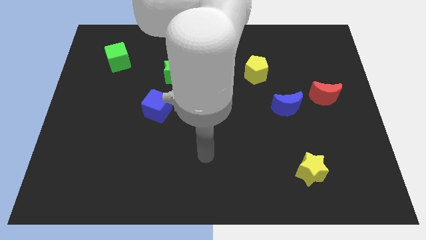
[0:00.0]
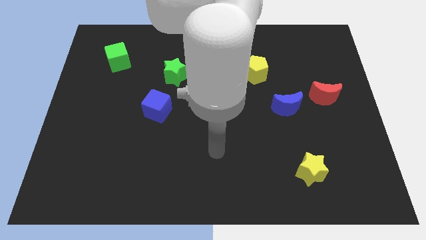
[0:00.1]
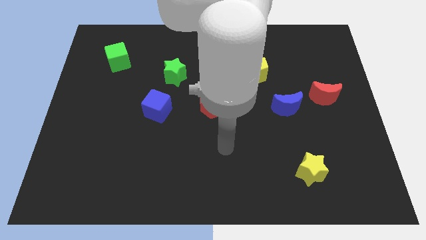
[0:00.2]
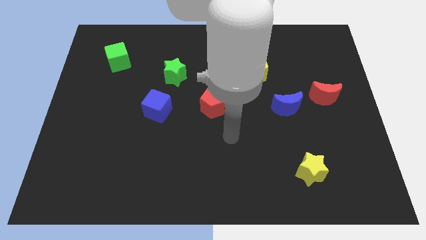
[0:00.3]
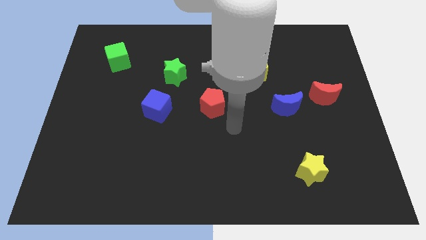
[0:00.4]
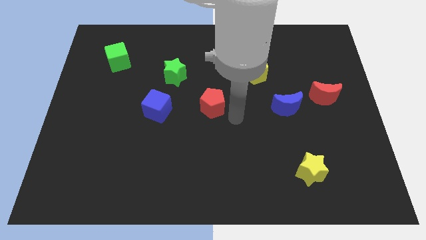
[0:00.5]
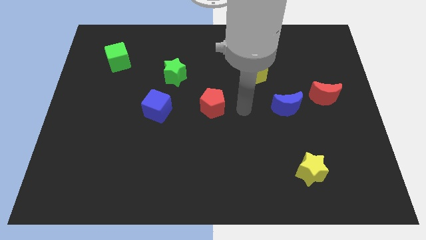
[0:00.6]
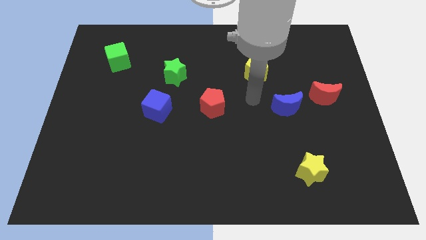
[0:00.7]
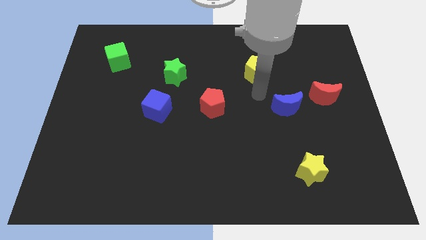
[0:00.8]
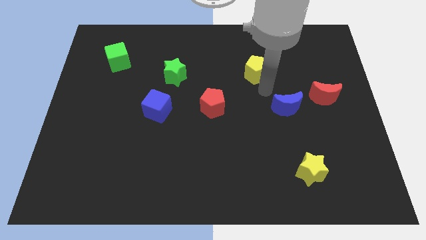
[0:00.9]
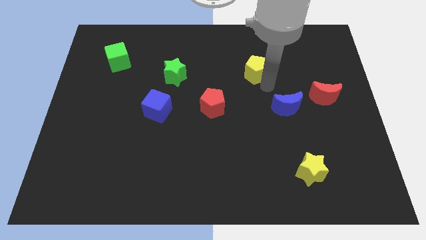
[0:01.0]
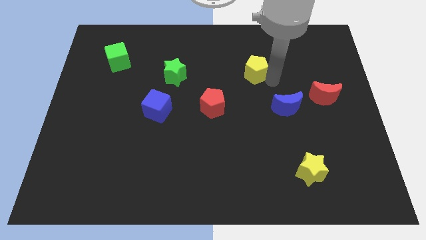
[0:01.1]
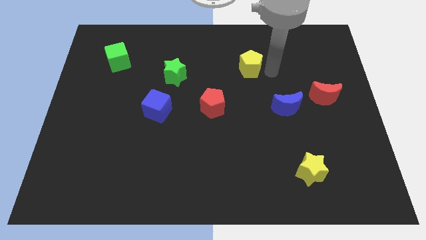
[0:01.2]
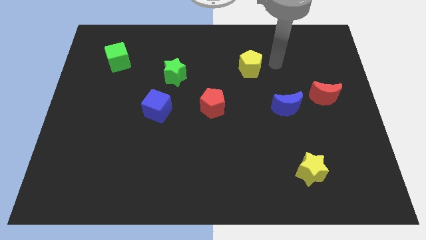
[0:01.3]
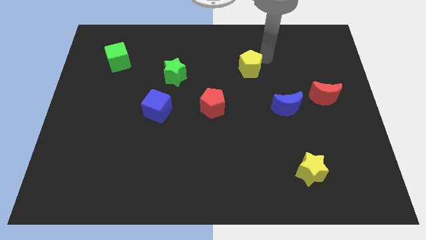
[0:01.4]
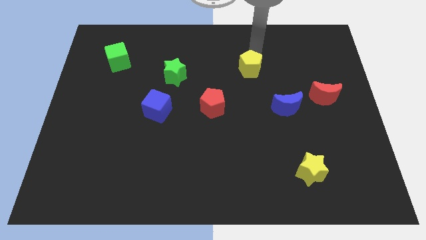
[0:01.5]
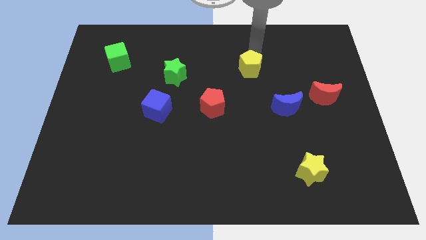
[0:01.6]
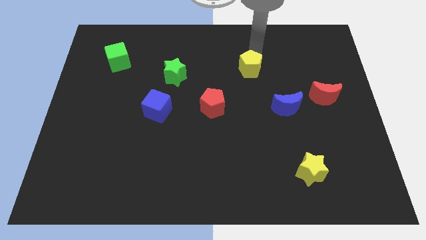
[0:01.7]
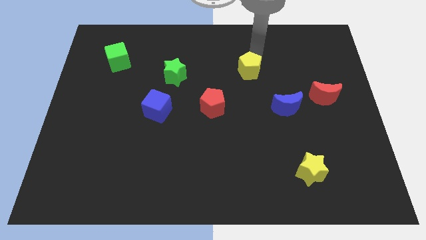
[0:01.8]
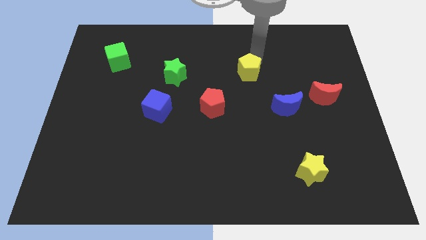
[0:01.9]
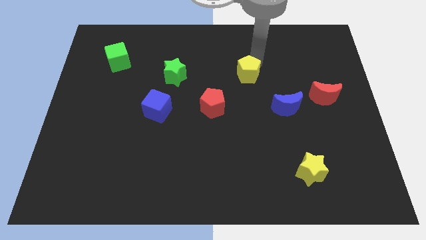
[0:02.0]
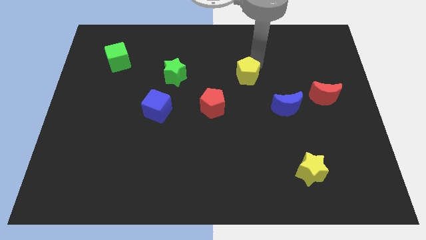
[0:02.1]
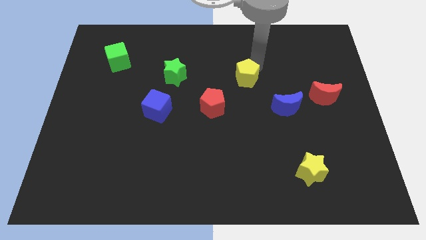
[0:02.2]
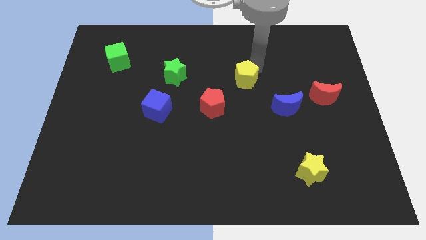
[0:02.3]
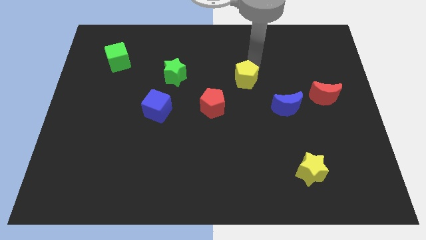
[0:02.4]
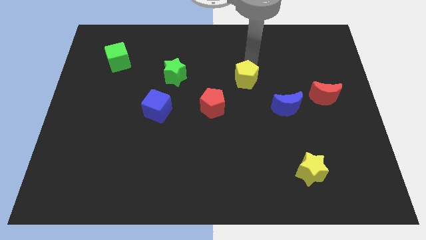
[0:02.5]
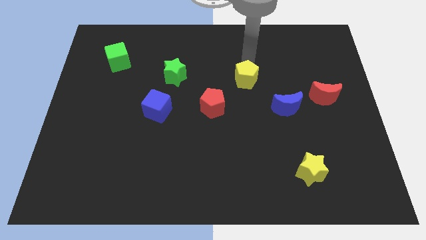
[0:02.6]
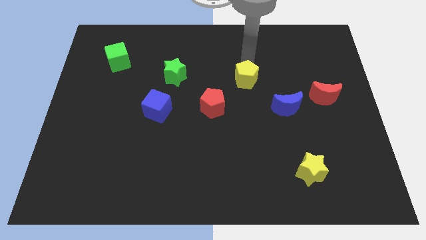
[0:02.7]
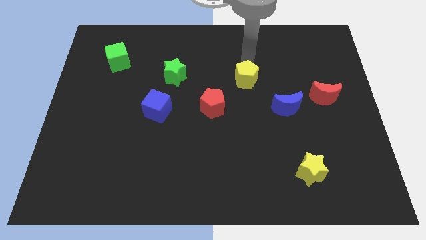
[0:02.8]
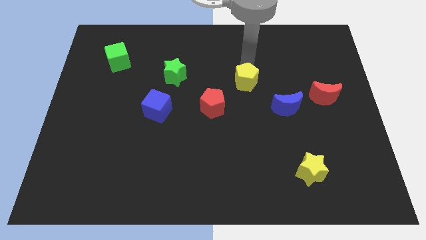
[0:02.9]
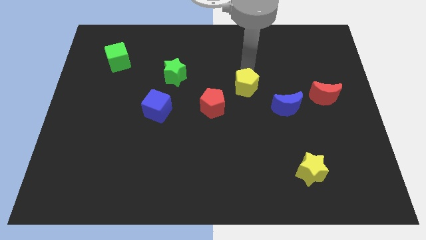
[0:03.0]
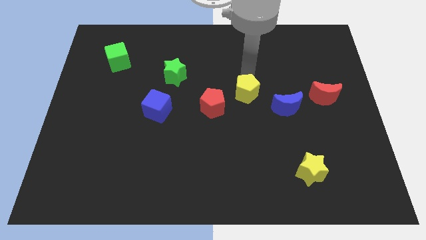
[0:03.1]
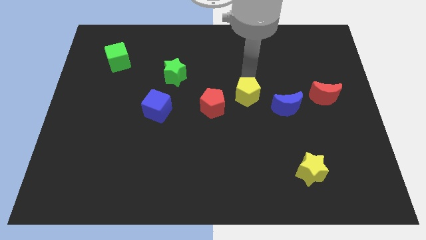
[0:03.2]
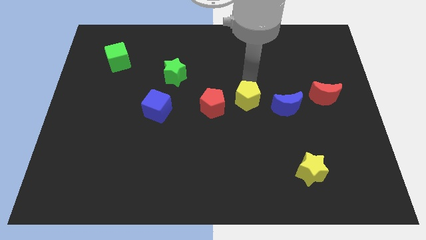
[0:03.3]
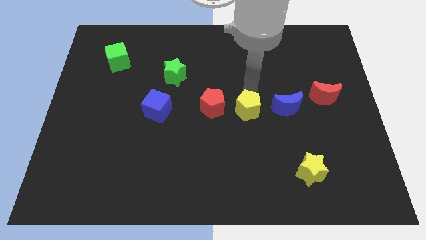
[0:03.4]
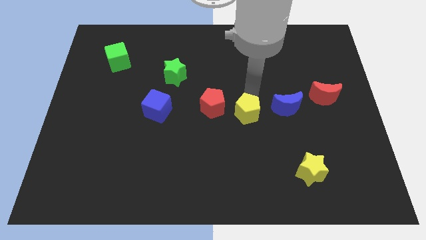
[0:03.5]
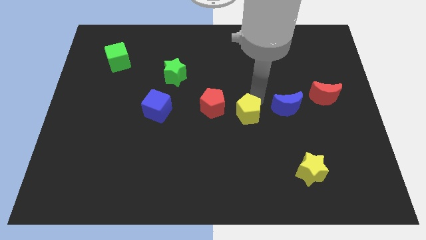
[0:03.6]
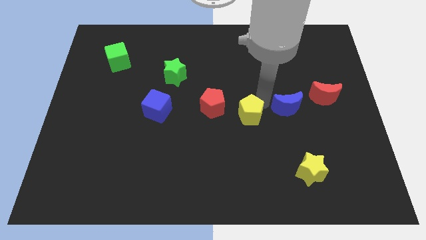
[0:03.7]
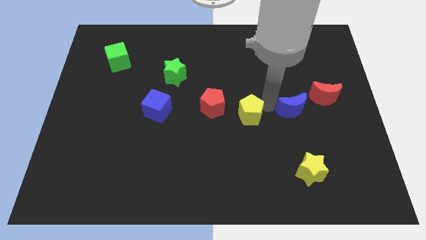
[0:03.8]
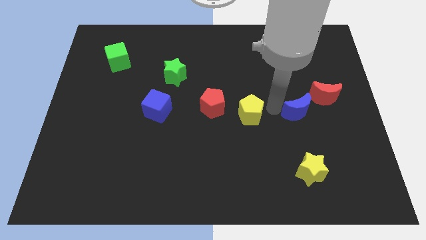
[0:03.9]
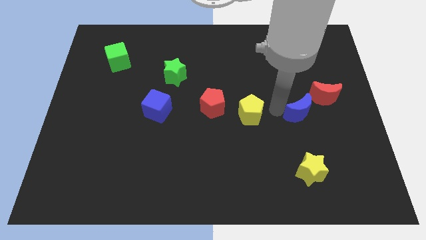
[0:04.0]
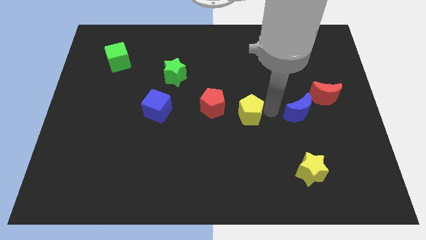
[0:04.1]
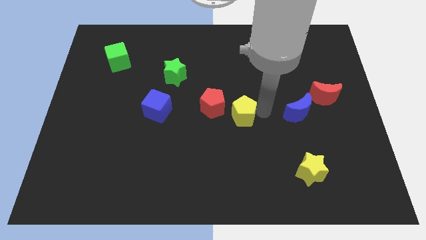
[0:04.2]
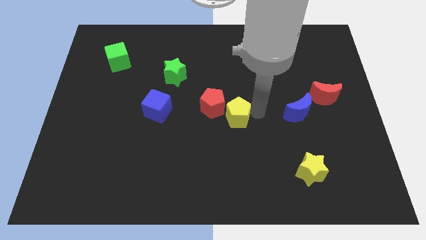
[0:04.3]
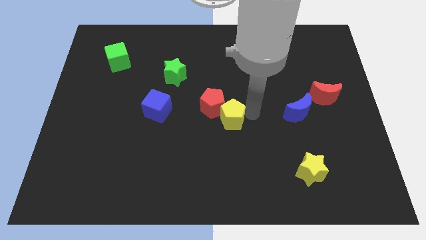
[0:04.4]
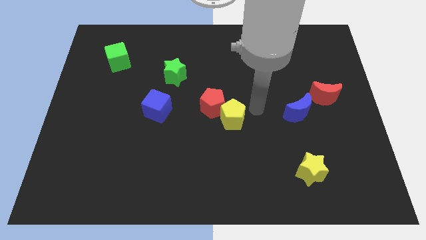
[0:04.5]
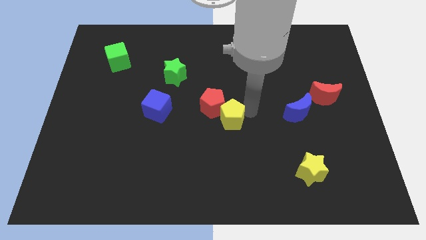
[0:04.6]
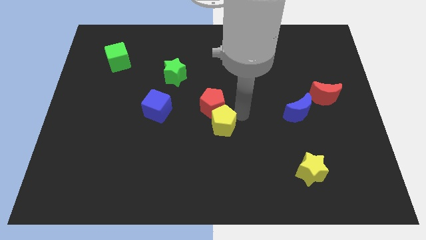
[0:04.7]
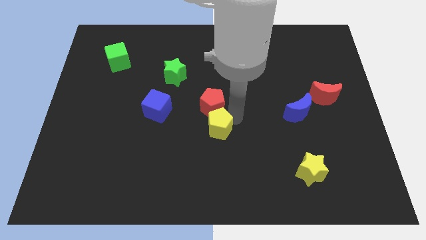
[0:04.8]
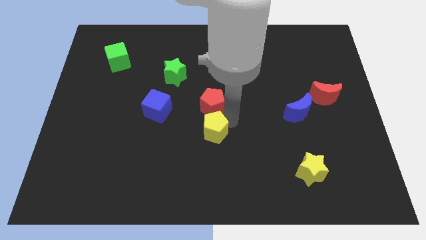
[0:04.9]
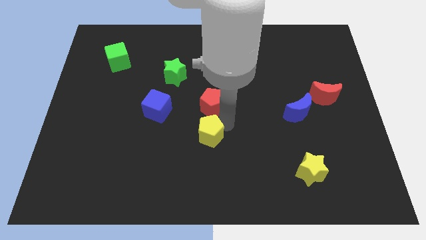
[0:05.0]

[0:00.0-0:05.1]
push the yellow pentagon downwards and then to the left

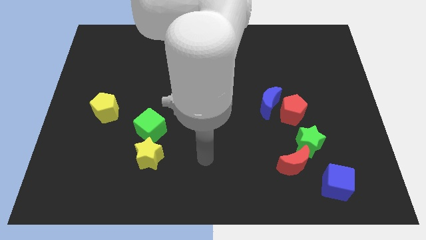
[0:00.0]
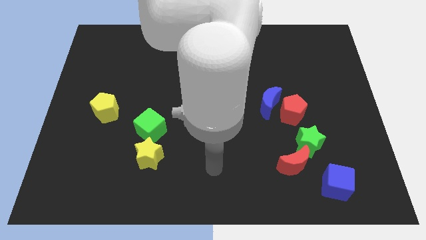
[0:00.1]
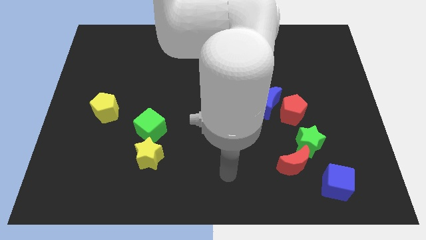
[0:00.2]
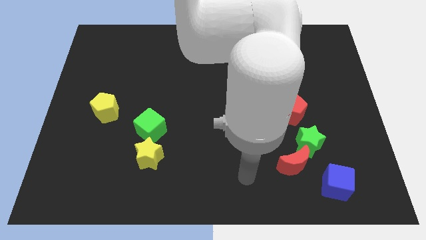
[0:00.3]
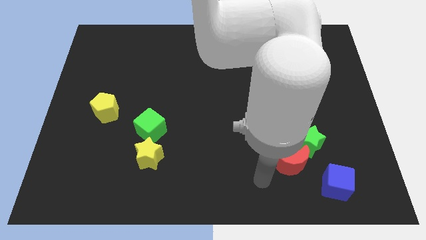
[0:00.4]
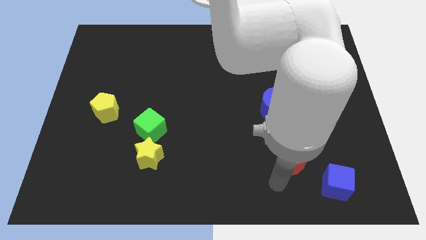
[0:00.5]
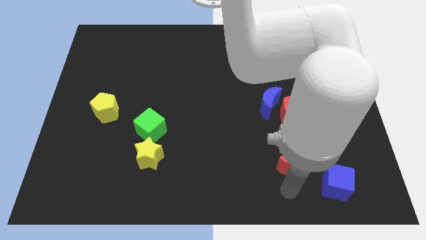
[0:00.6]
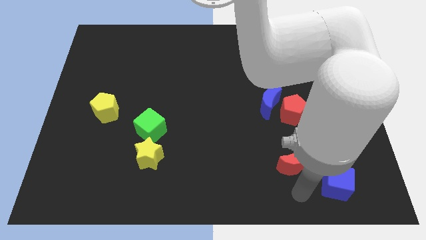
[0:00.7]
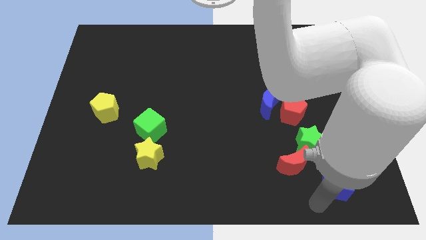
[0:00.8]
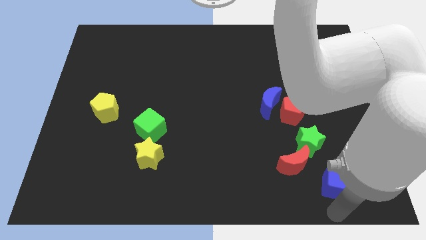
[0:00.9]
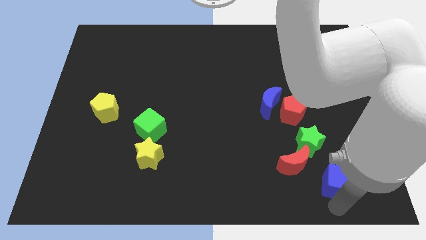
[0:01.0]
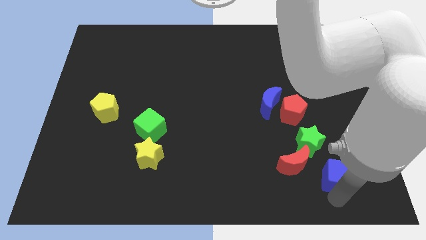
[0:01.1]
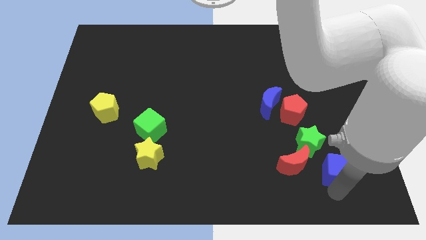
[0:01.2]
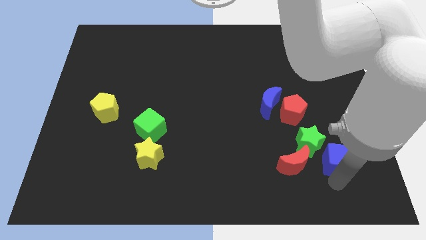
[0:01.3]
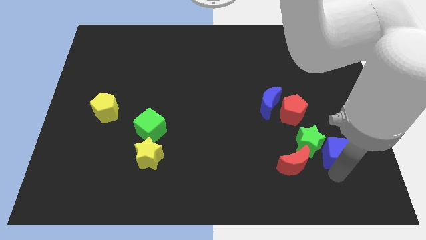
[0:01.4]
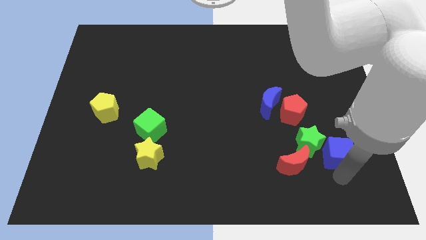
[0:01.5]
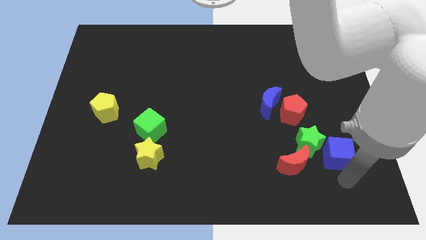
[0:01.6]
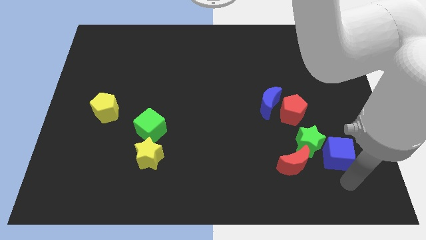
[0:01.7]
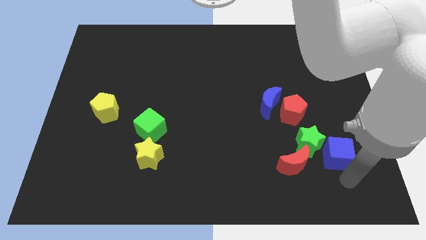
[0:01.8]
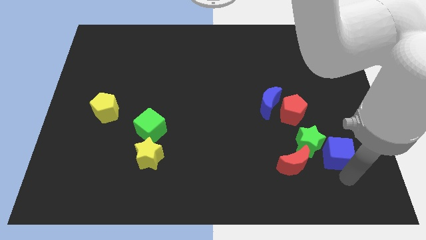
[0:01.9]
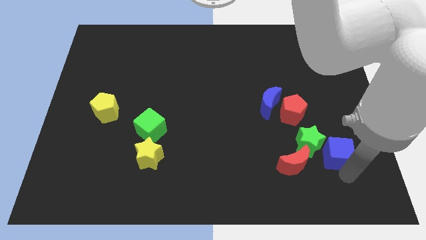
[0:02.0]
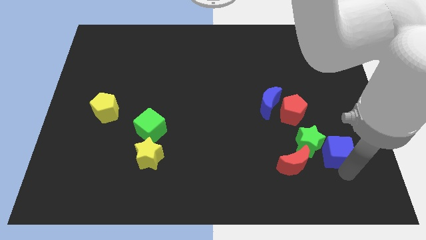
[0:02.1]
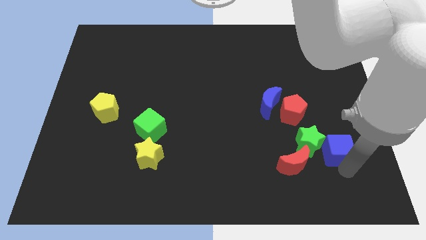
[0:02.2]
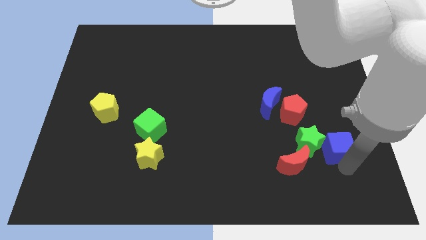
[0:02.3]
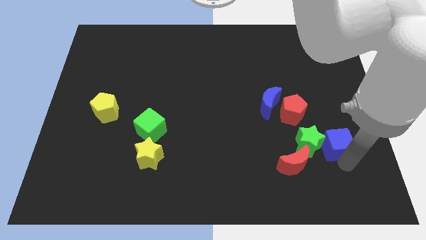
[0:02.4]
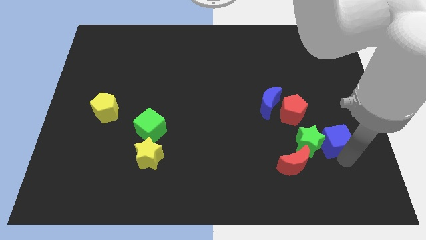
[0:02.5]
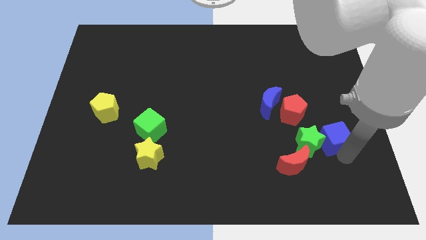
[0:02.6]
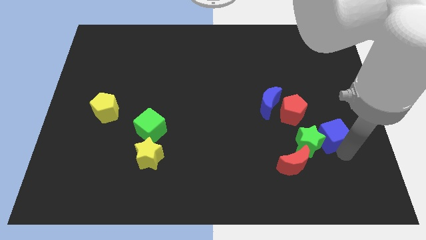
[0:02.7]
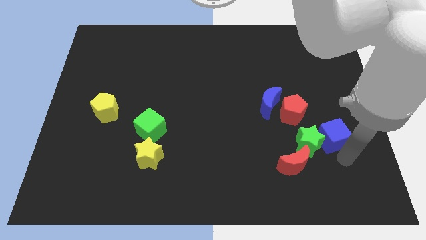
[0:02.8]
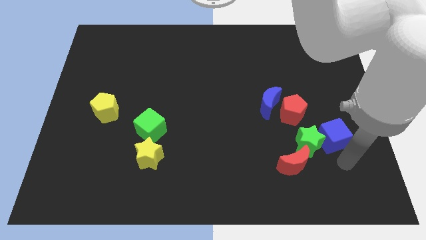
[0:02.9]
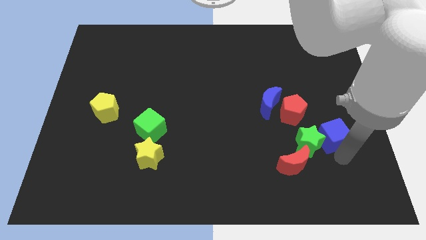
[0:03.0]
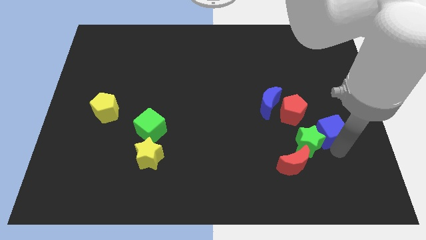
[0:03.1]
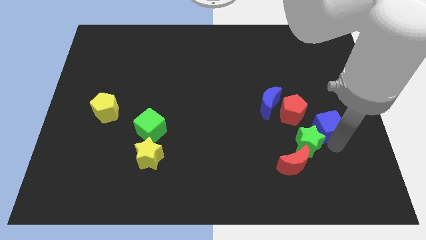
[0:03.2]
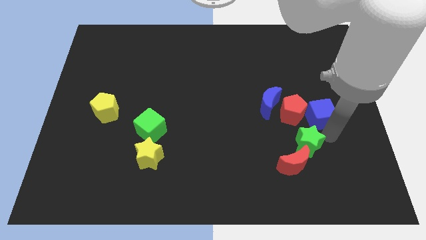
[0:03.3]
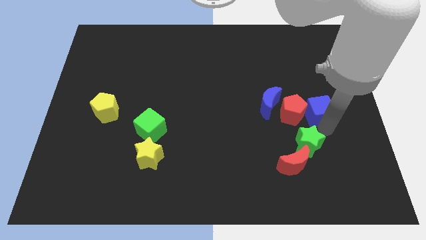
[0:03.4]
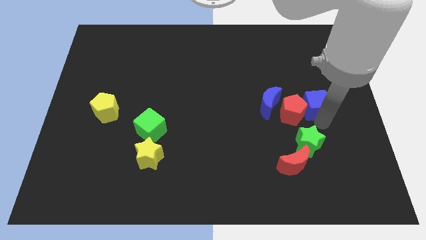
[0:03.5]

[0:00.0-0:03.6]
push the blue cube upwards
